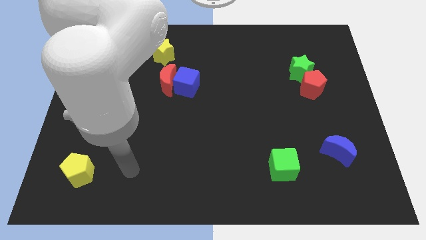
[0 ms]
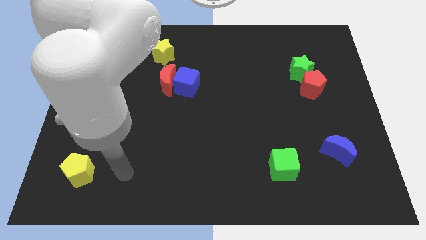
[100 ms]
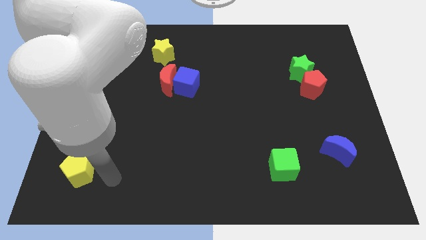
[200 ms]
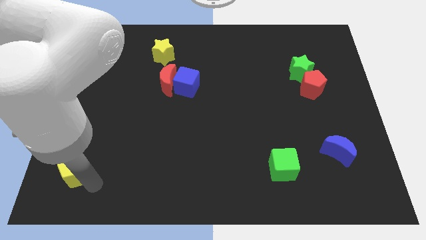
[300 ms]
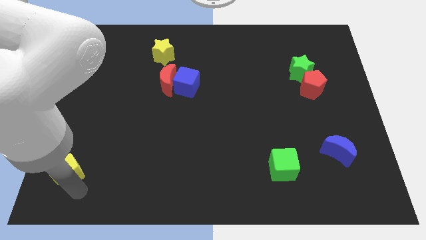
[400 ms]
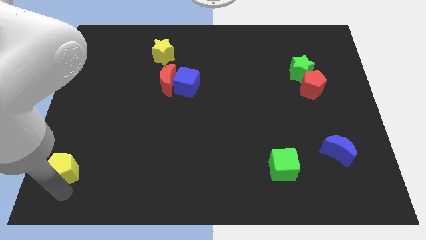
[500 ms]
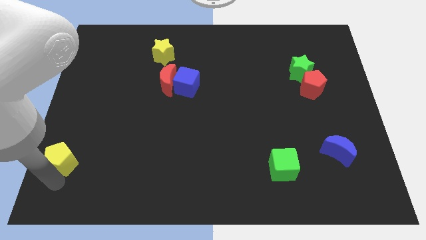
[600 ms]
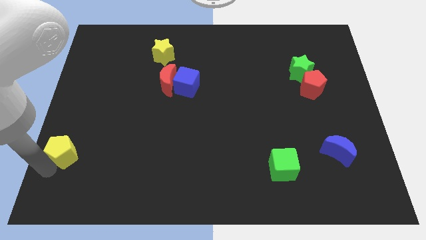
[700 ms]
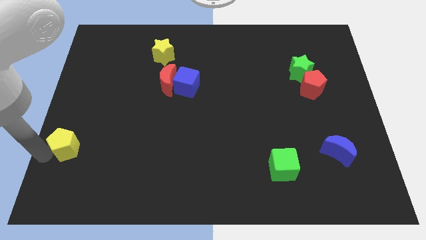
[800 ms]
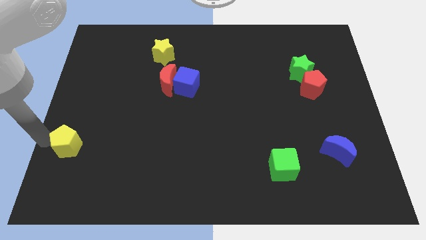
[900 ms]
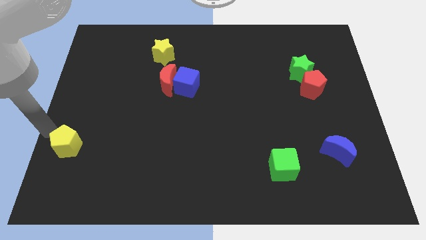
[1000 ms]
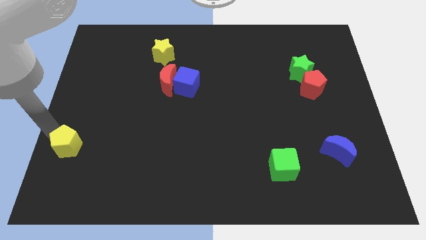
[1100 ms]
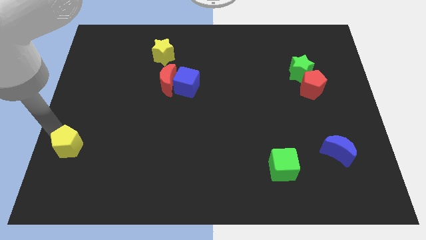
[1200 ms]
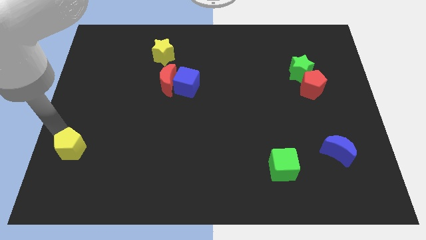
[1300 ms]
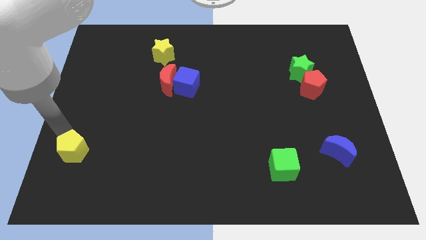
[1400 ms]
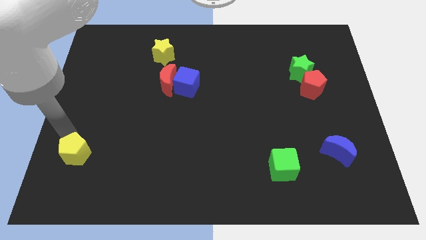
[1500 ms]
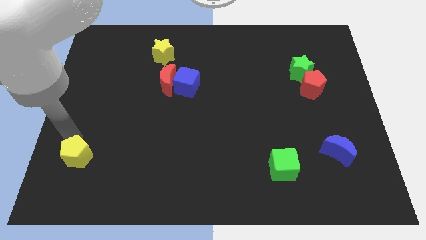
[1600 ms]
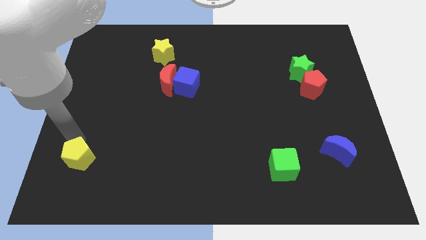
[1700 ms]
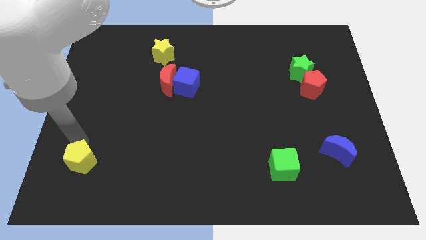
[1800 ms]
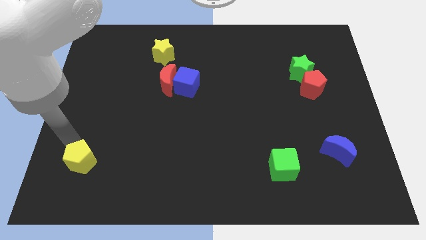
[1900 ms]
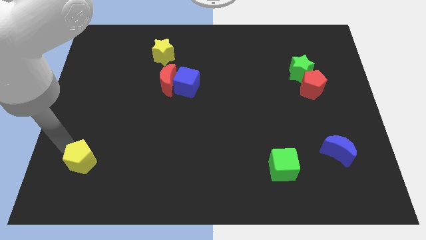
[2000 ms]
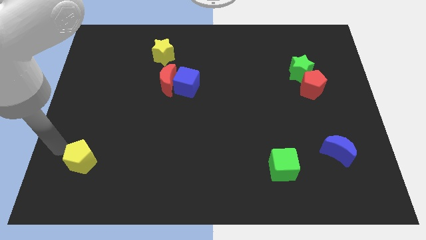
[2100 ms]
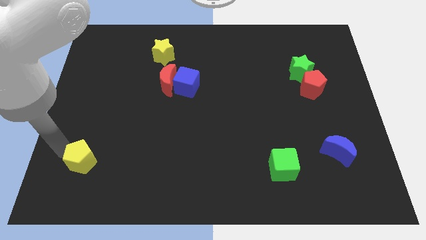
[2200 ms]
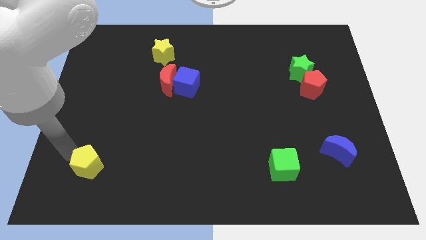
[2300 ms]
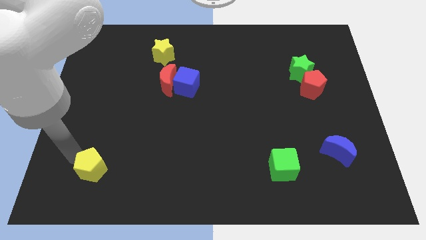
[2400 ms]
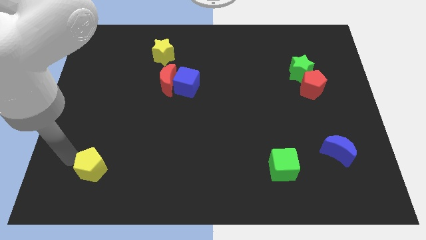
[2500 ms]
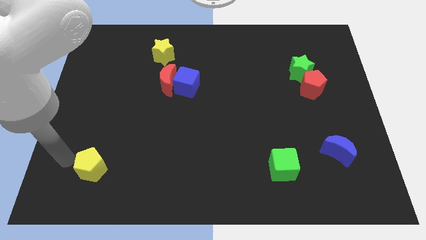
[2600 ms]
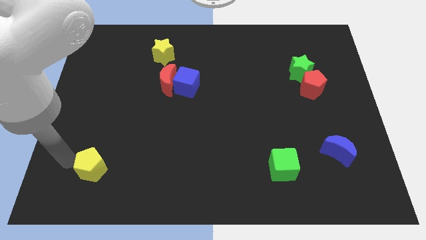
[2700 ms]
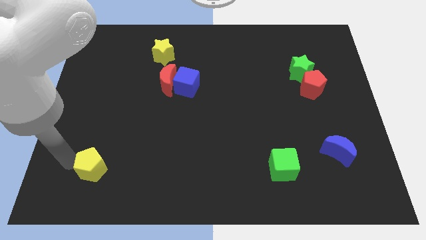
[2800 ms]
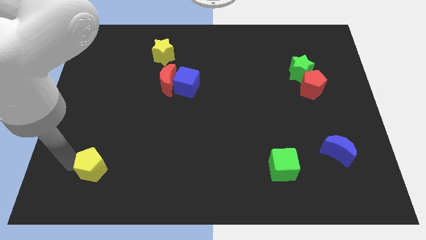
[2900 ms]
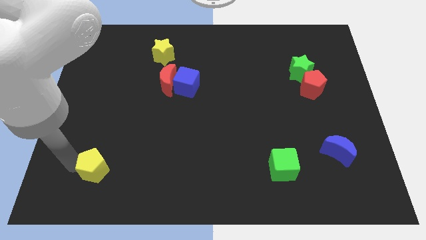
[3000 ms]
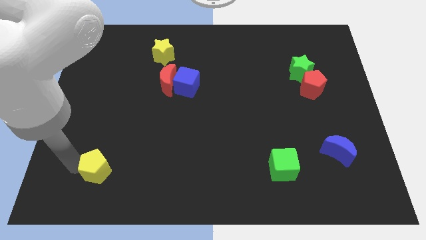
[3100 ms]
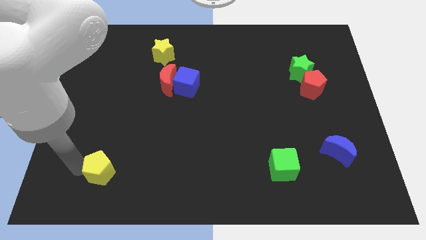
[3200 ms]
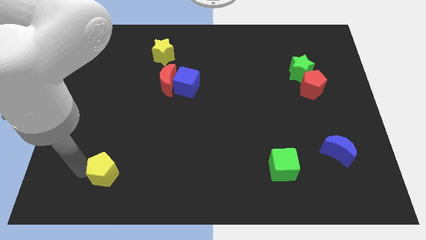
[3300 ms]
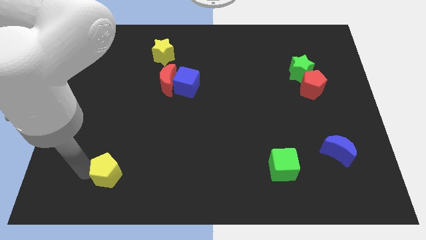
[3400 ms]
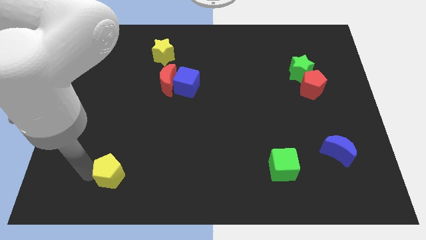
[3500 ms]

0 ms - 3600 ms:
slightly slide the yellow pentagon right

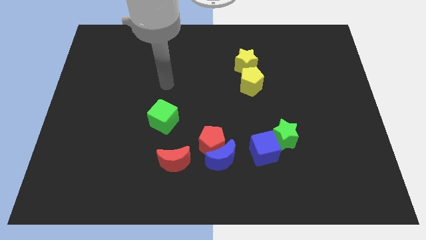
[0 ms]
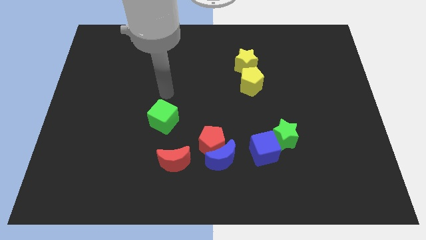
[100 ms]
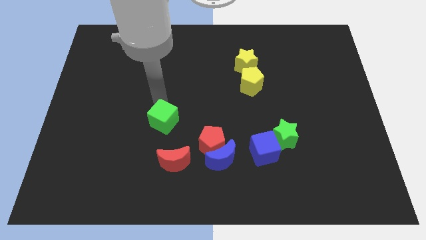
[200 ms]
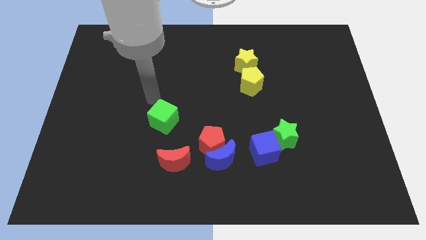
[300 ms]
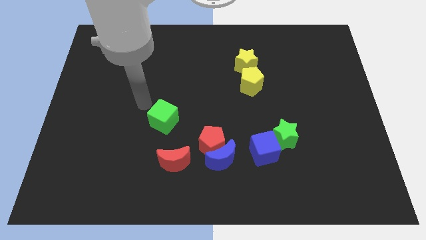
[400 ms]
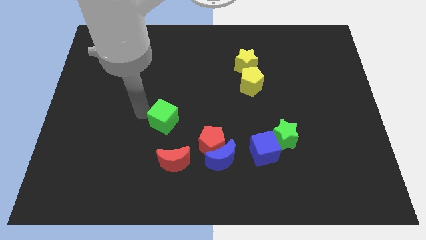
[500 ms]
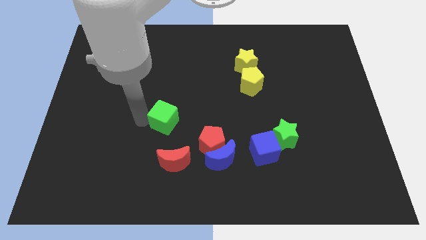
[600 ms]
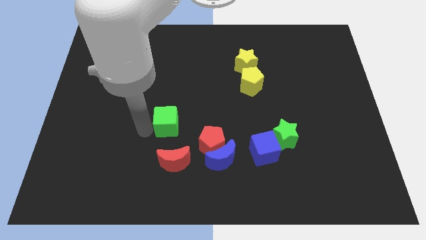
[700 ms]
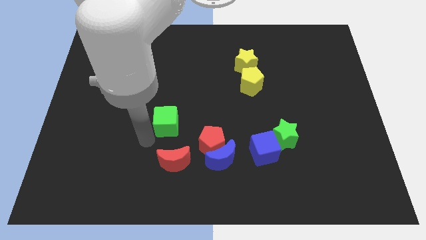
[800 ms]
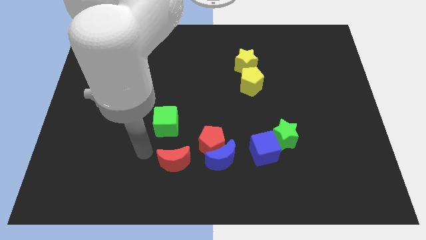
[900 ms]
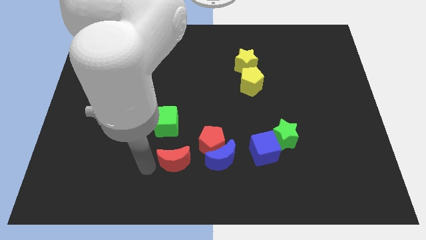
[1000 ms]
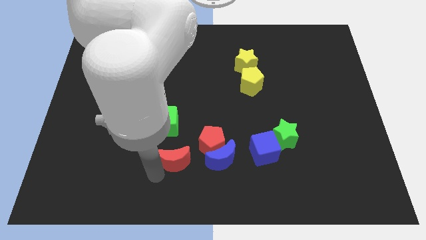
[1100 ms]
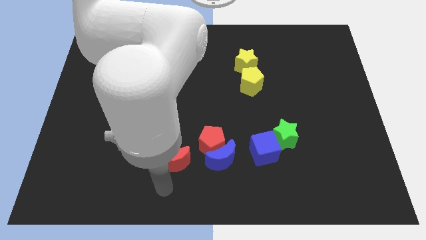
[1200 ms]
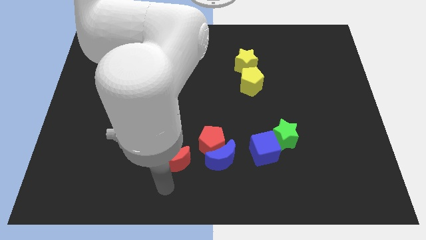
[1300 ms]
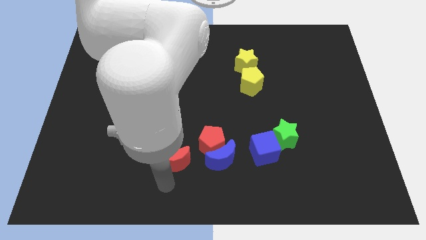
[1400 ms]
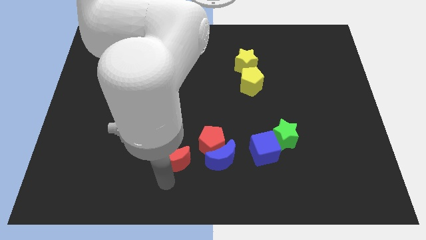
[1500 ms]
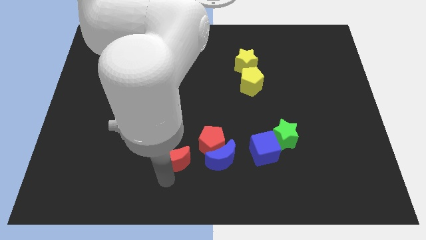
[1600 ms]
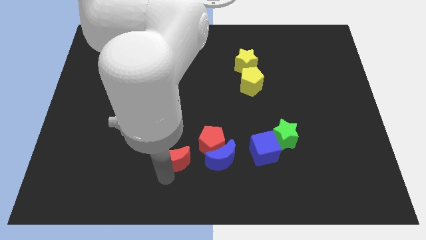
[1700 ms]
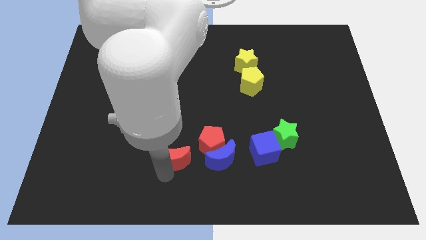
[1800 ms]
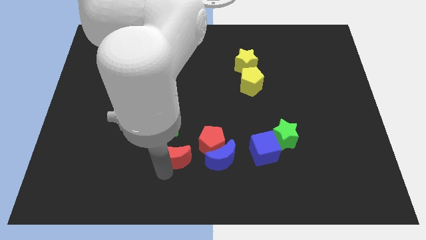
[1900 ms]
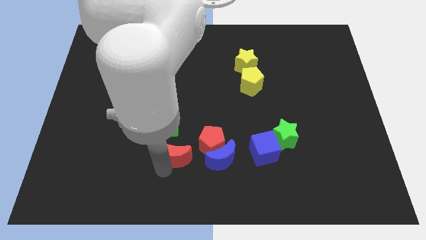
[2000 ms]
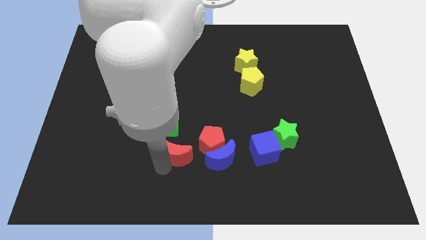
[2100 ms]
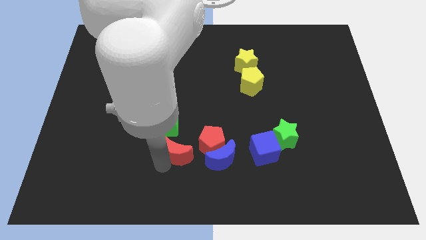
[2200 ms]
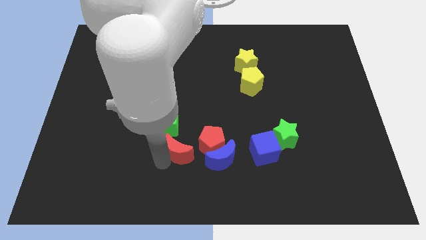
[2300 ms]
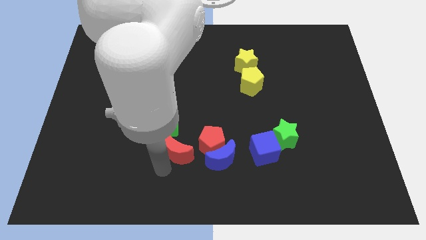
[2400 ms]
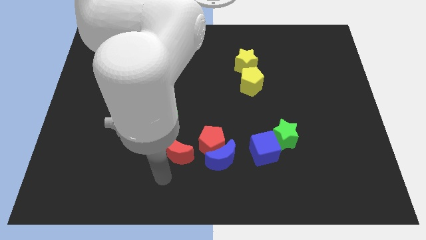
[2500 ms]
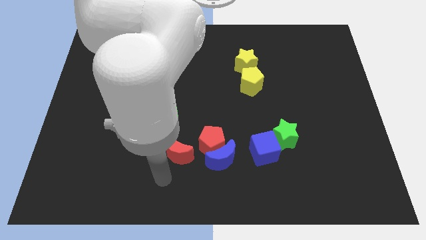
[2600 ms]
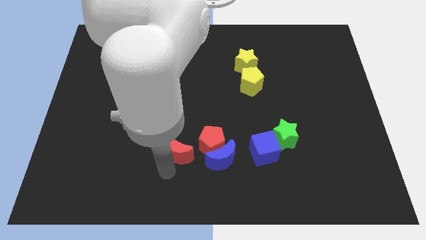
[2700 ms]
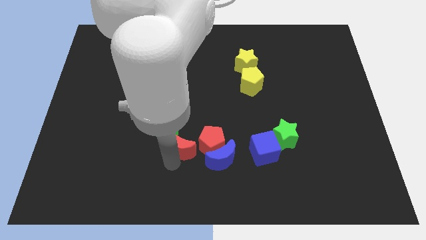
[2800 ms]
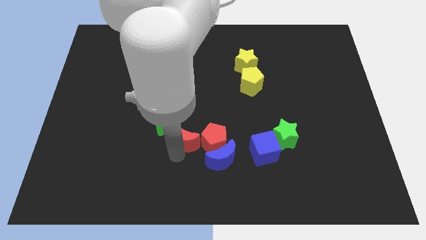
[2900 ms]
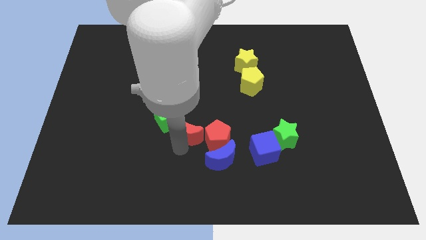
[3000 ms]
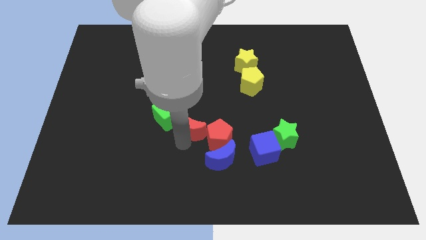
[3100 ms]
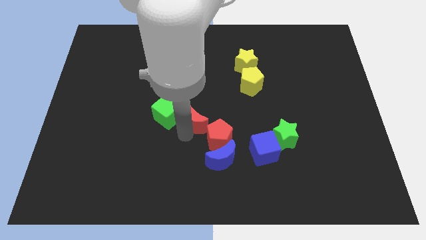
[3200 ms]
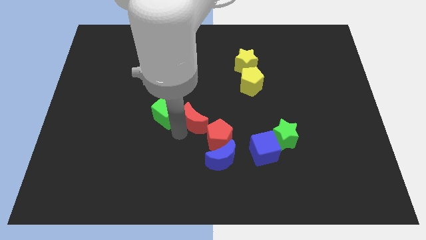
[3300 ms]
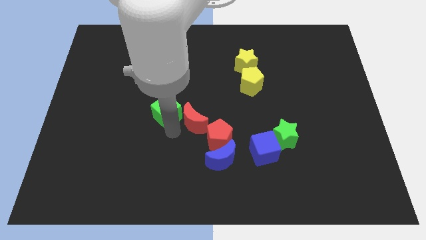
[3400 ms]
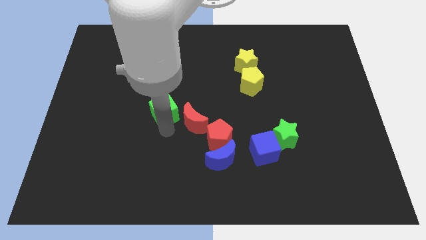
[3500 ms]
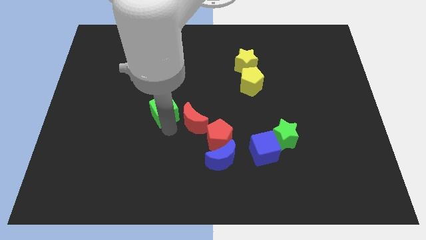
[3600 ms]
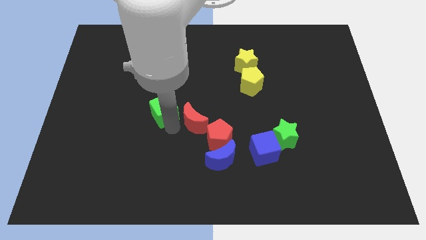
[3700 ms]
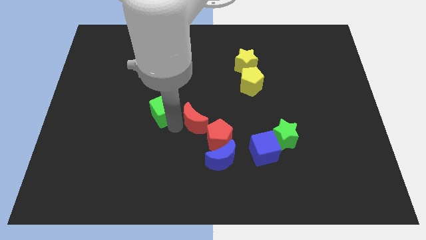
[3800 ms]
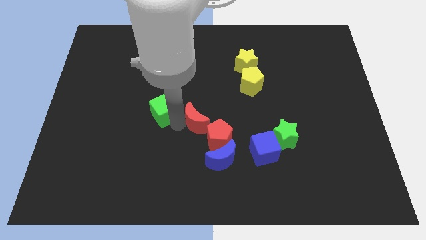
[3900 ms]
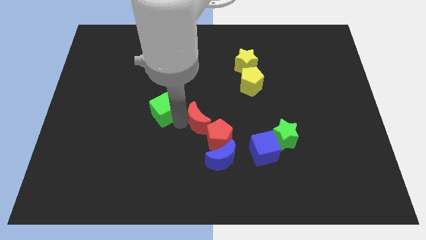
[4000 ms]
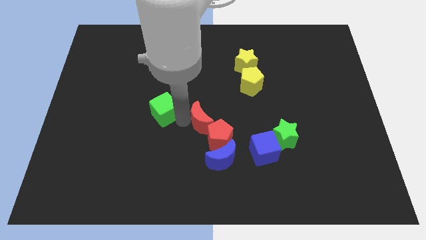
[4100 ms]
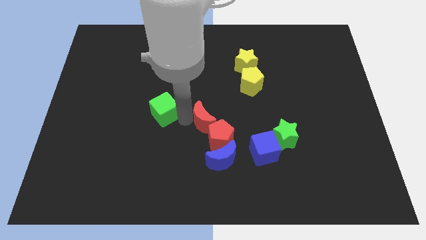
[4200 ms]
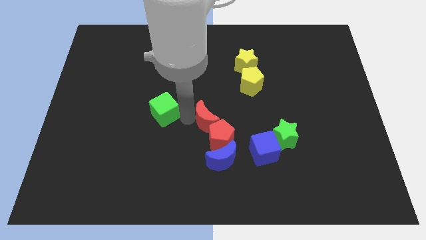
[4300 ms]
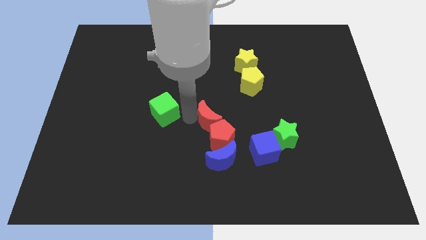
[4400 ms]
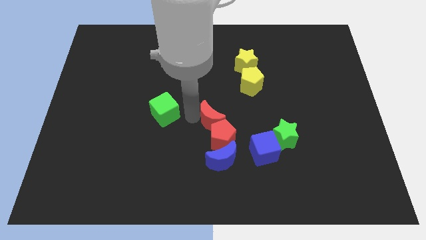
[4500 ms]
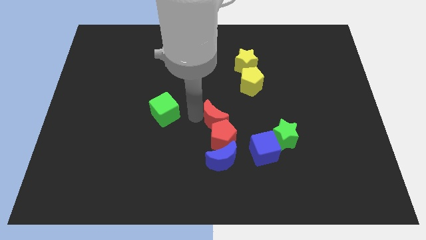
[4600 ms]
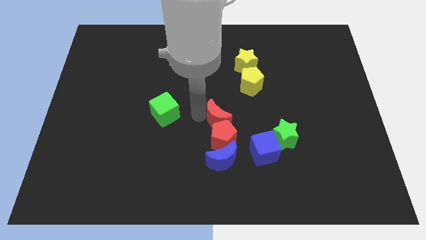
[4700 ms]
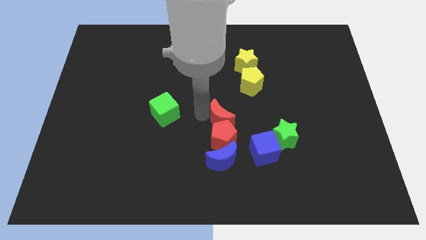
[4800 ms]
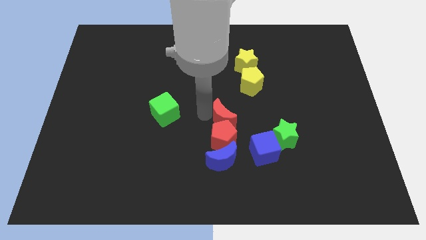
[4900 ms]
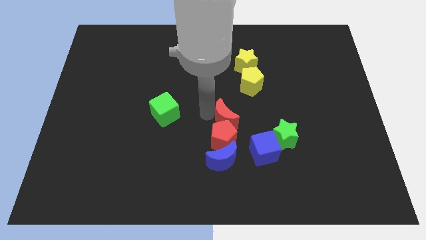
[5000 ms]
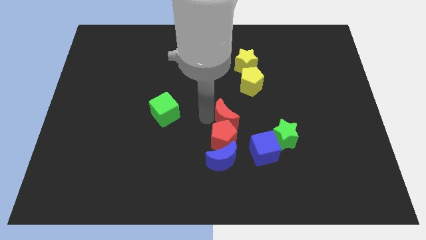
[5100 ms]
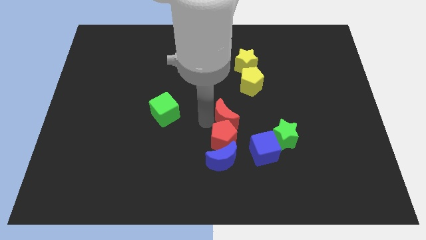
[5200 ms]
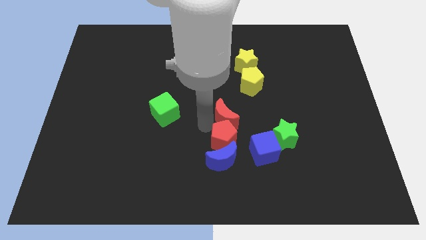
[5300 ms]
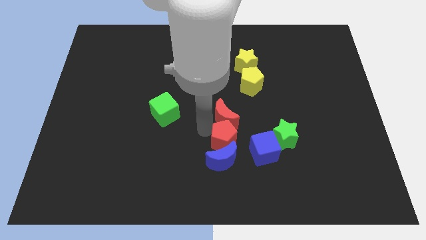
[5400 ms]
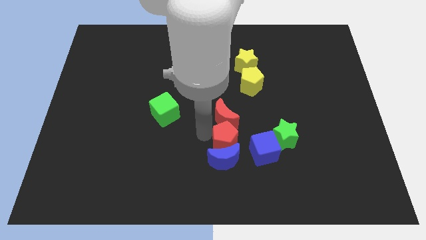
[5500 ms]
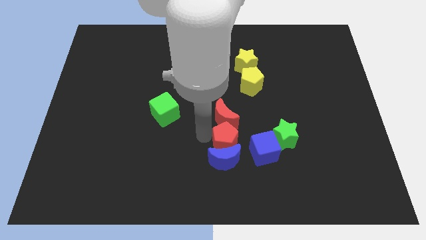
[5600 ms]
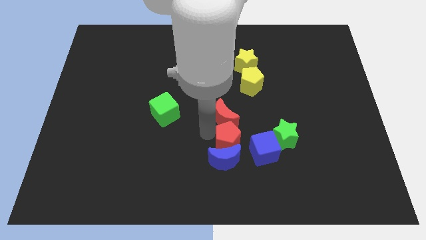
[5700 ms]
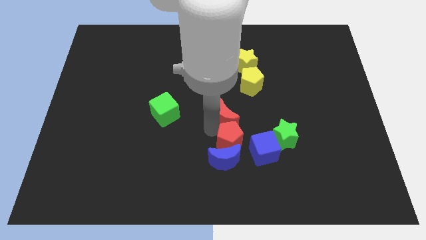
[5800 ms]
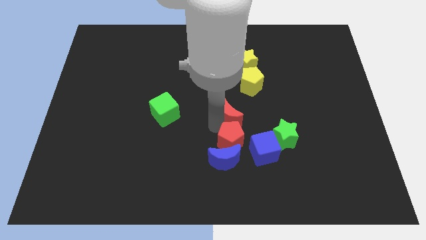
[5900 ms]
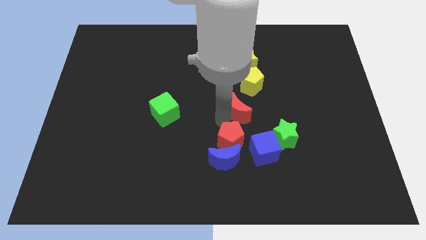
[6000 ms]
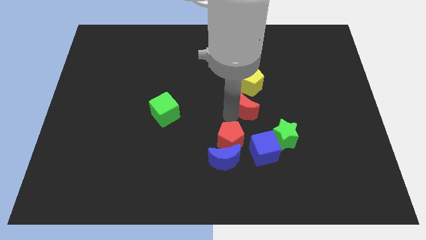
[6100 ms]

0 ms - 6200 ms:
move the red moon upwards and then to the right
